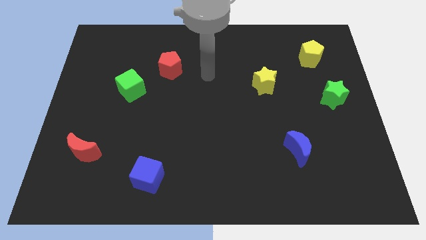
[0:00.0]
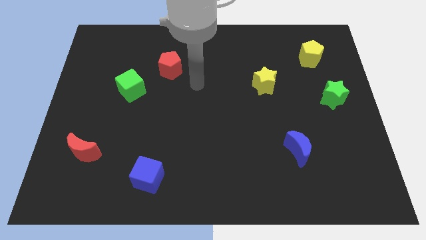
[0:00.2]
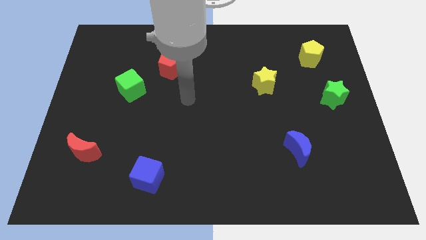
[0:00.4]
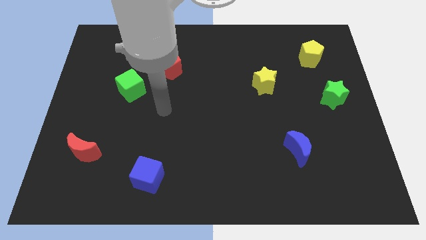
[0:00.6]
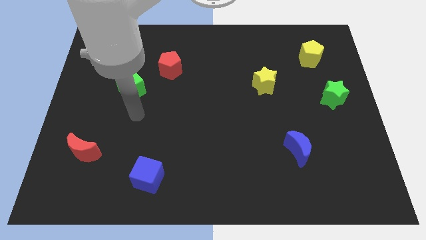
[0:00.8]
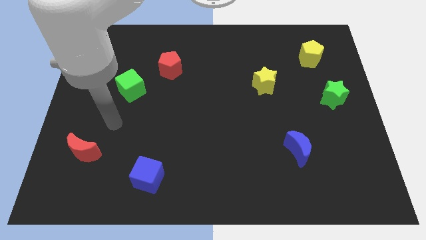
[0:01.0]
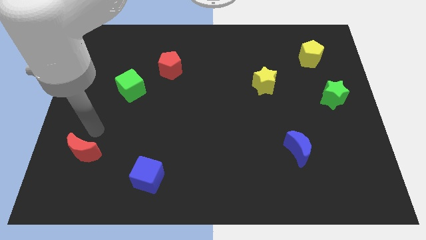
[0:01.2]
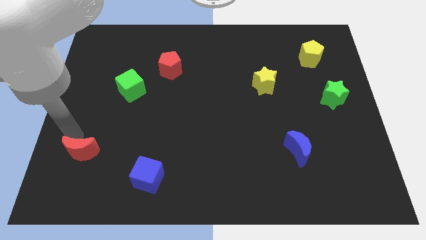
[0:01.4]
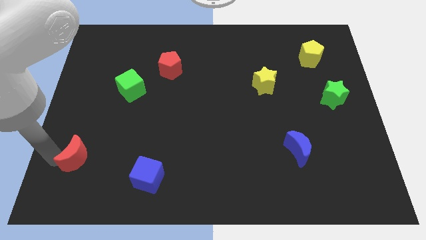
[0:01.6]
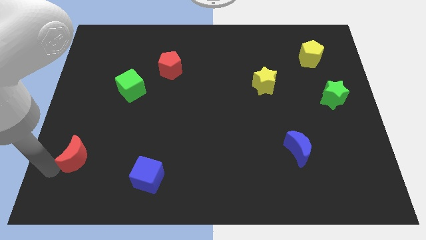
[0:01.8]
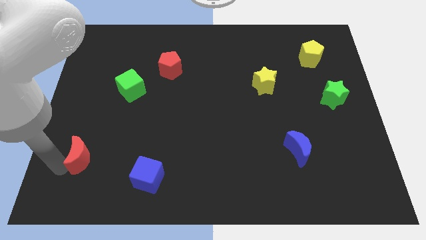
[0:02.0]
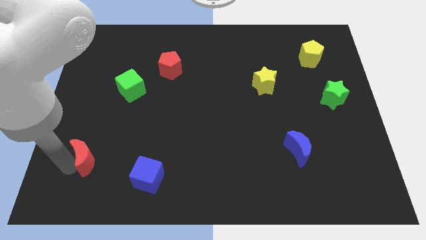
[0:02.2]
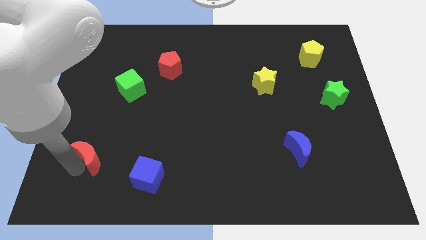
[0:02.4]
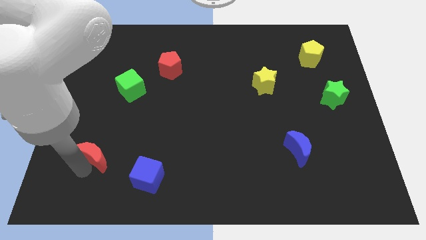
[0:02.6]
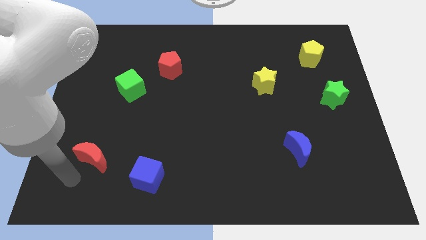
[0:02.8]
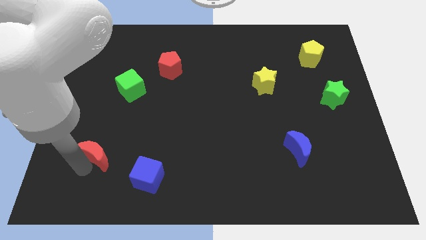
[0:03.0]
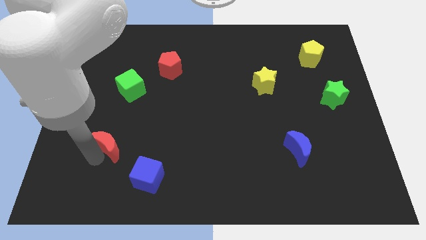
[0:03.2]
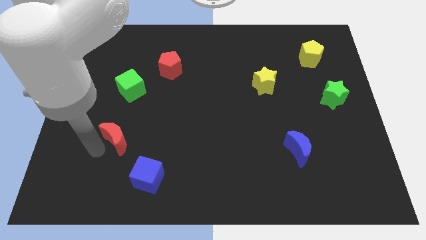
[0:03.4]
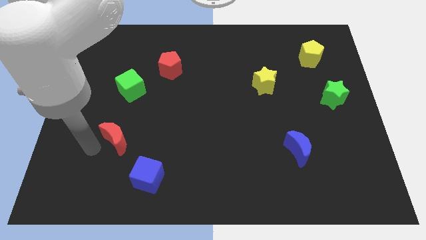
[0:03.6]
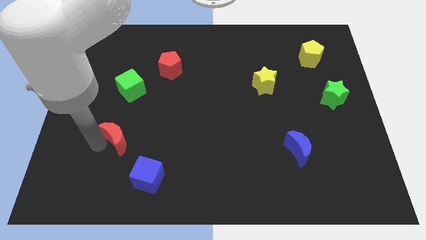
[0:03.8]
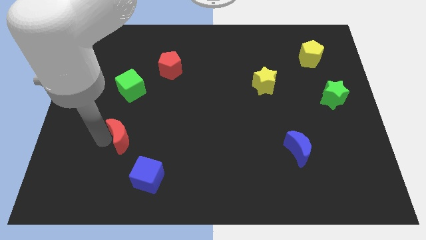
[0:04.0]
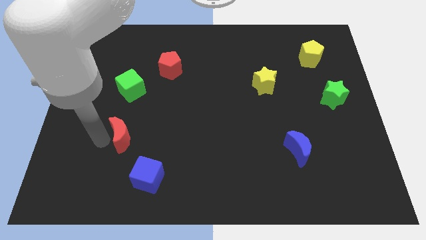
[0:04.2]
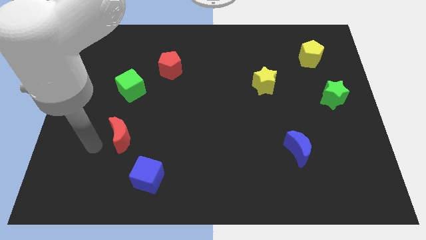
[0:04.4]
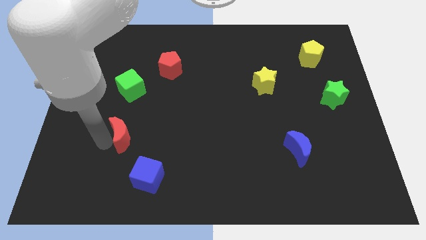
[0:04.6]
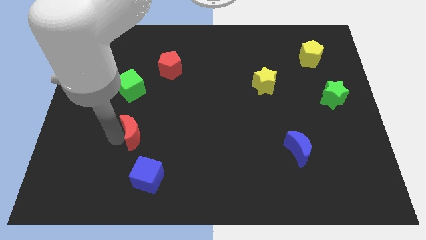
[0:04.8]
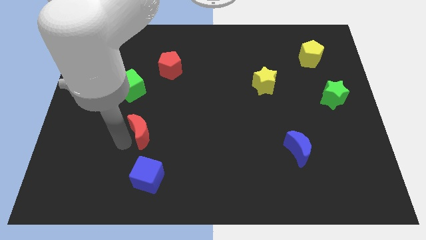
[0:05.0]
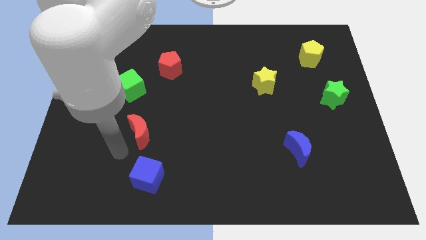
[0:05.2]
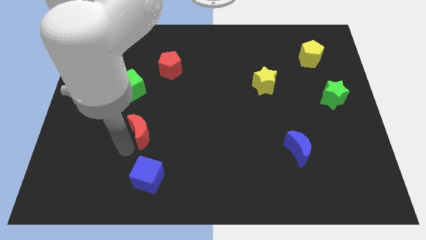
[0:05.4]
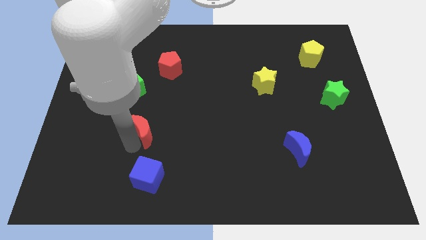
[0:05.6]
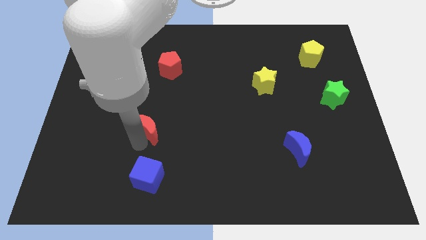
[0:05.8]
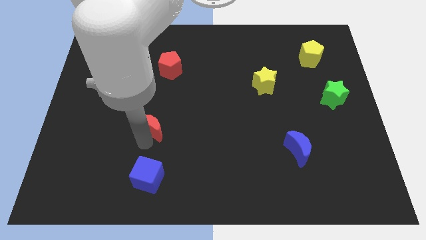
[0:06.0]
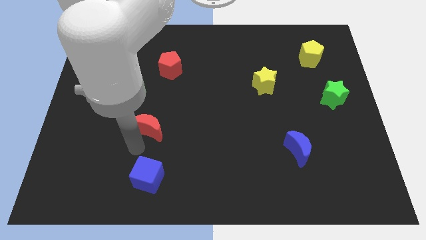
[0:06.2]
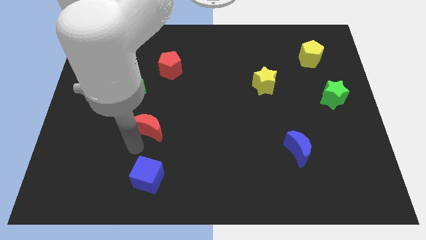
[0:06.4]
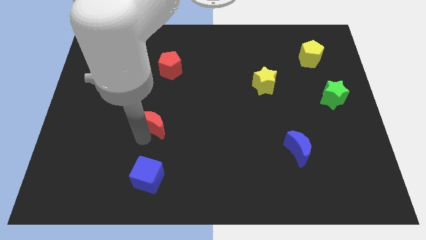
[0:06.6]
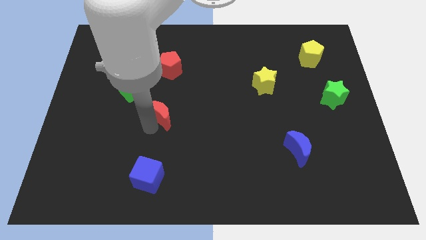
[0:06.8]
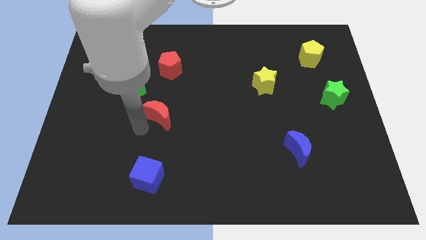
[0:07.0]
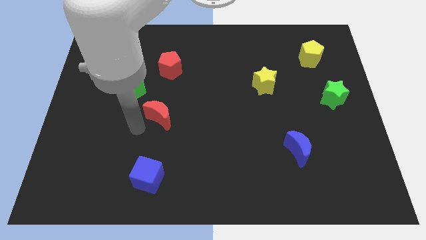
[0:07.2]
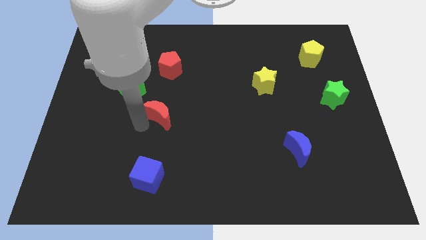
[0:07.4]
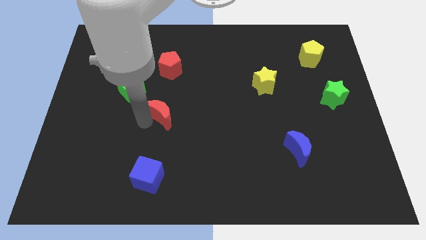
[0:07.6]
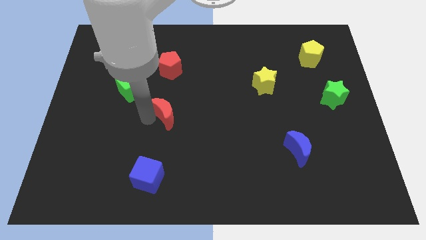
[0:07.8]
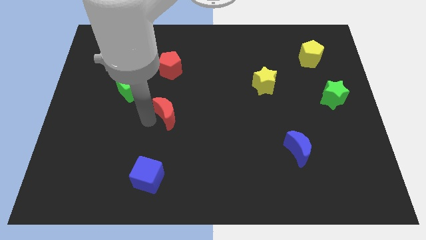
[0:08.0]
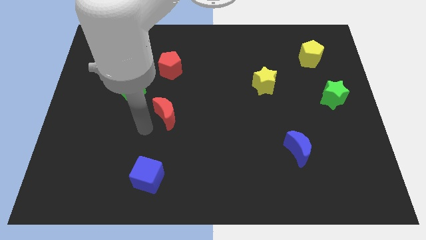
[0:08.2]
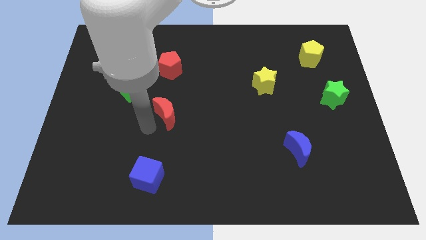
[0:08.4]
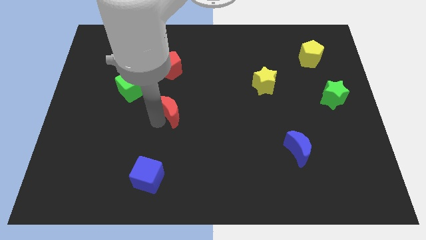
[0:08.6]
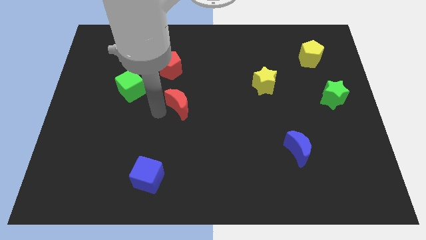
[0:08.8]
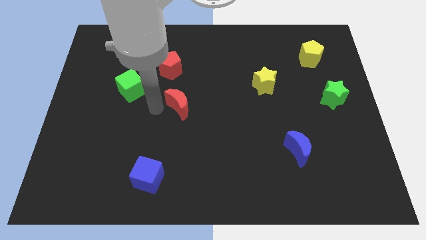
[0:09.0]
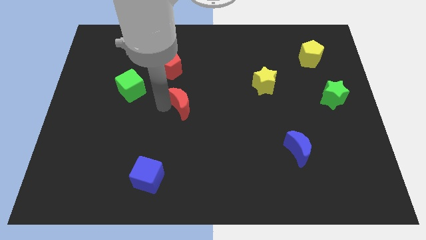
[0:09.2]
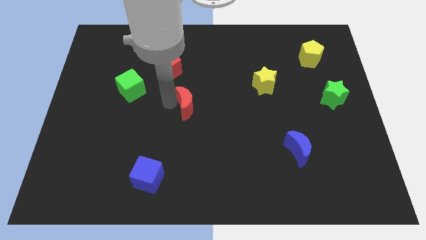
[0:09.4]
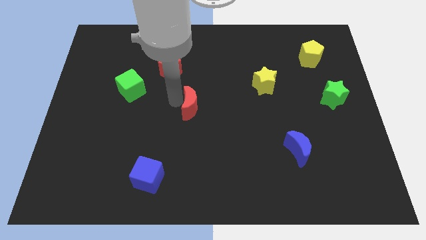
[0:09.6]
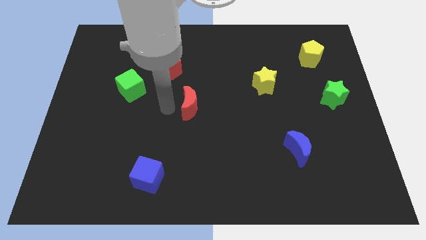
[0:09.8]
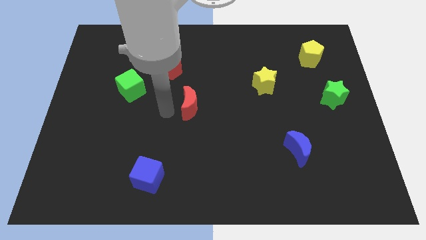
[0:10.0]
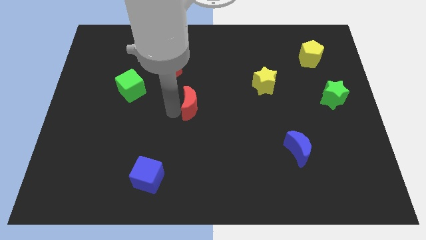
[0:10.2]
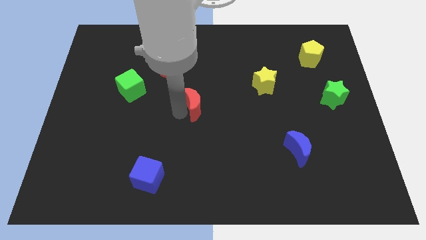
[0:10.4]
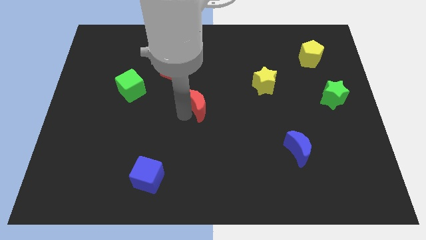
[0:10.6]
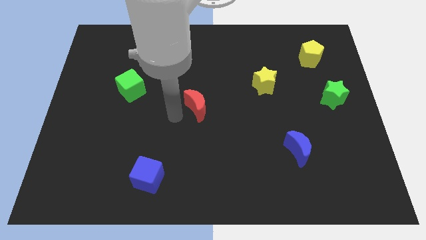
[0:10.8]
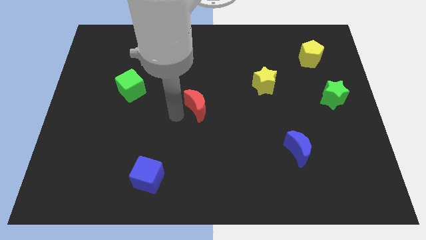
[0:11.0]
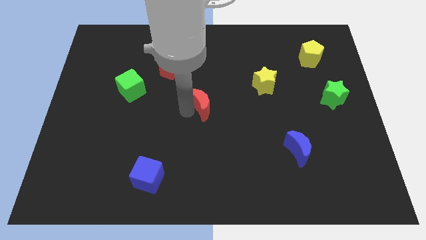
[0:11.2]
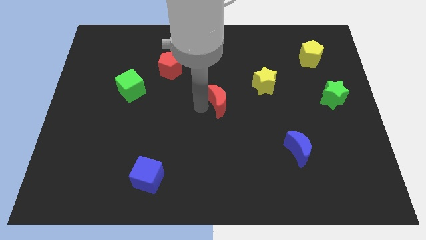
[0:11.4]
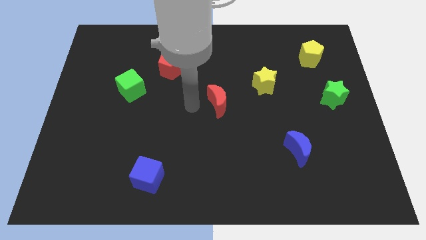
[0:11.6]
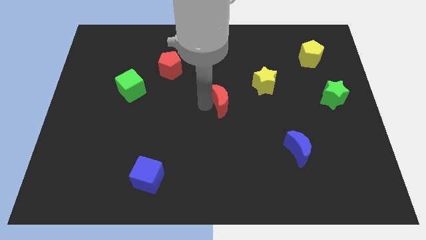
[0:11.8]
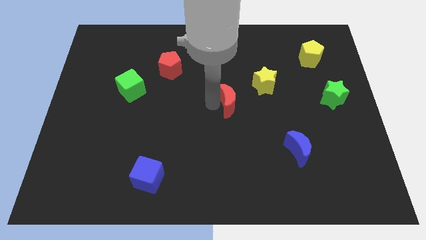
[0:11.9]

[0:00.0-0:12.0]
put the red moon diagonally down and to the left of the yellow star

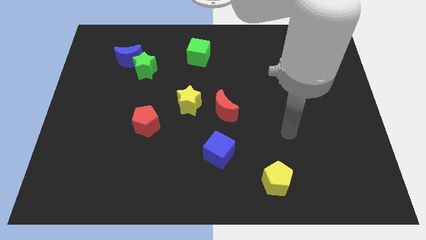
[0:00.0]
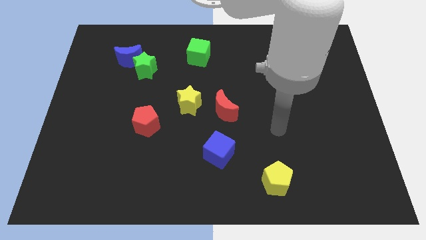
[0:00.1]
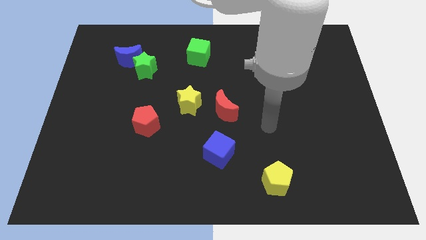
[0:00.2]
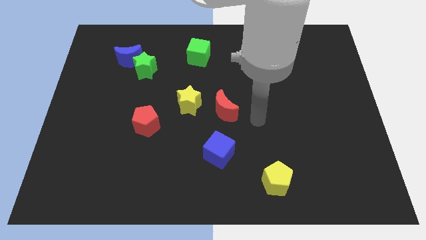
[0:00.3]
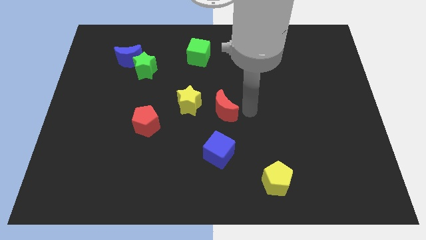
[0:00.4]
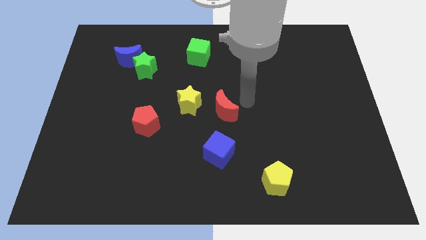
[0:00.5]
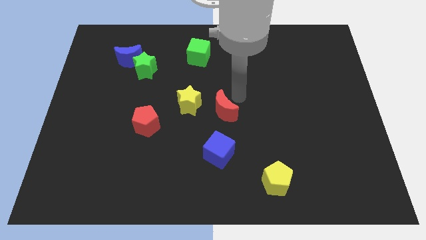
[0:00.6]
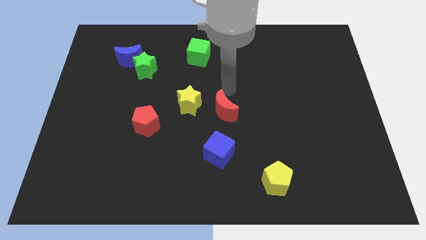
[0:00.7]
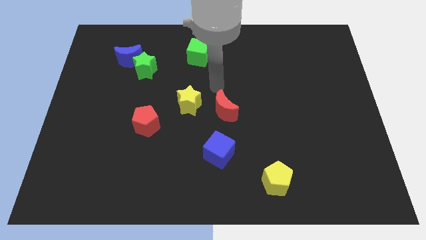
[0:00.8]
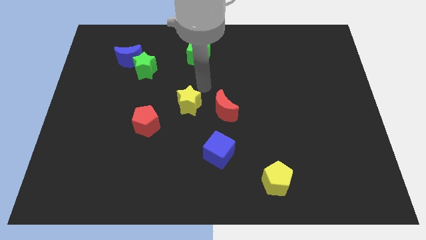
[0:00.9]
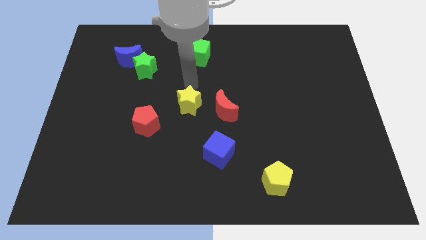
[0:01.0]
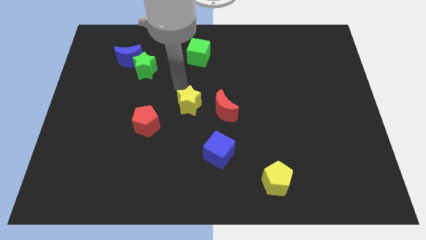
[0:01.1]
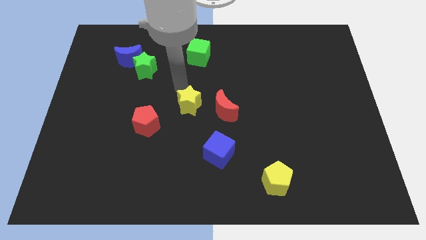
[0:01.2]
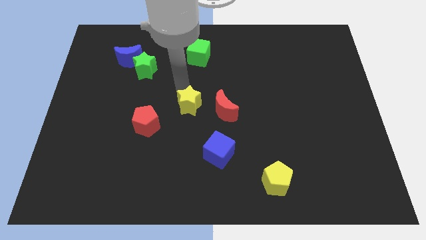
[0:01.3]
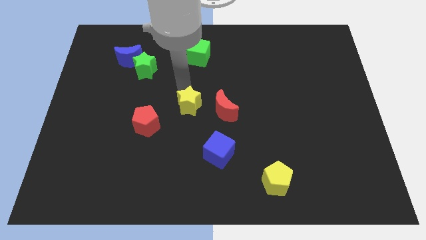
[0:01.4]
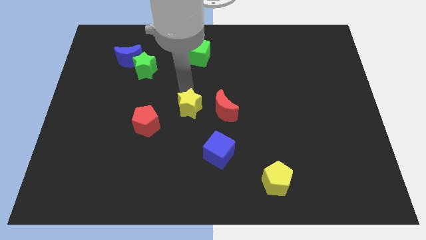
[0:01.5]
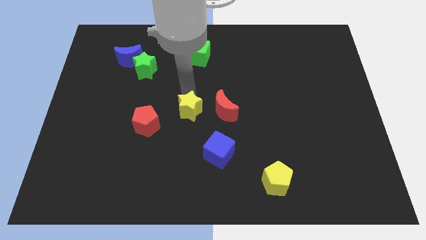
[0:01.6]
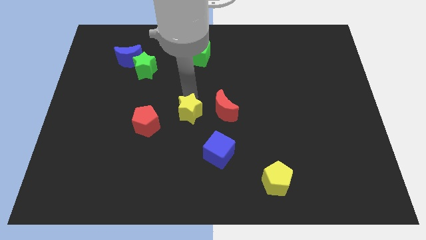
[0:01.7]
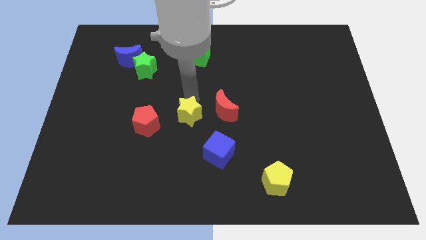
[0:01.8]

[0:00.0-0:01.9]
put the yellow star to the bottom left side of the red moon

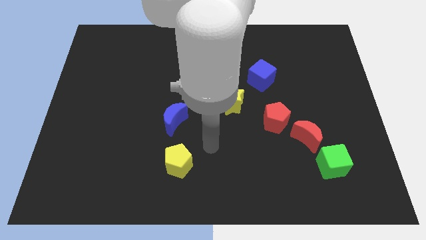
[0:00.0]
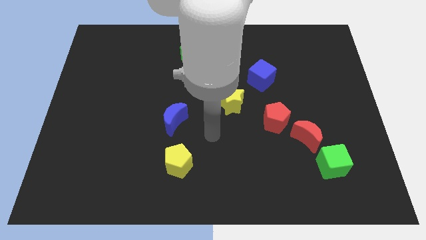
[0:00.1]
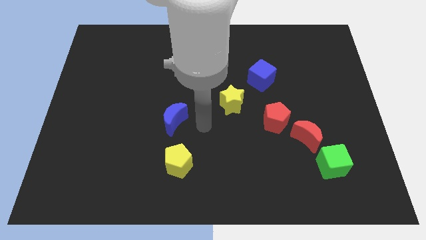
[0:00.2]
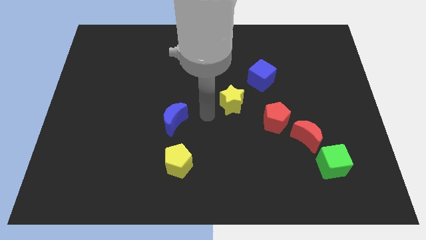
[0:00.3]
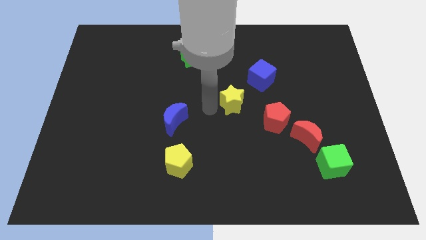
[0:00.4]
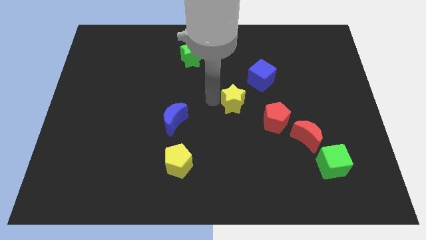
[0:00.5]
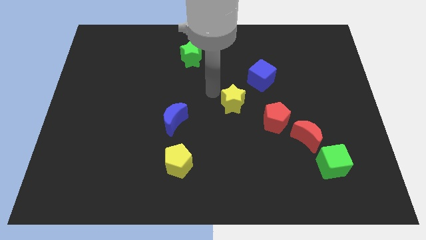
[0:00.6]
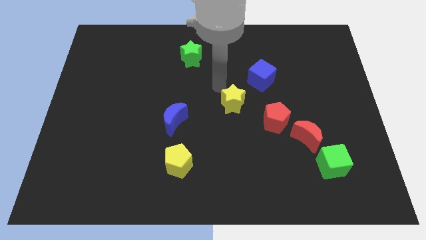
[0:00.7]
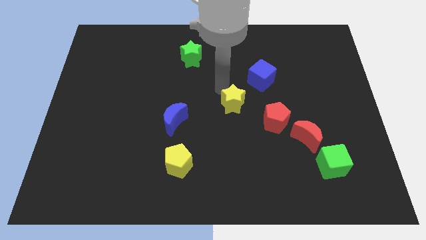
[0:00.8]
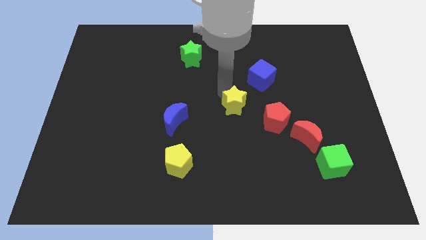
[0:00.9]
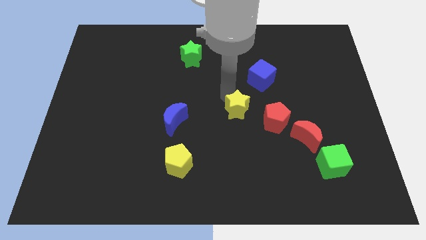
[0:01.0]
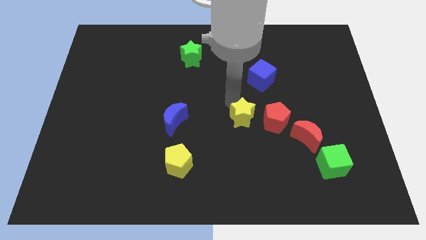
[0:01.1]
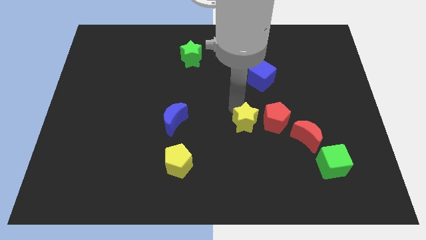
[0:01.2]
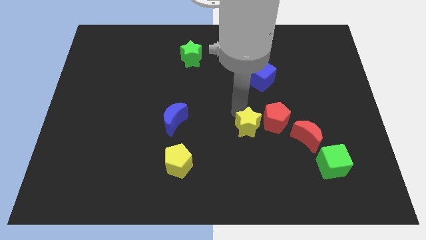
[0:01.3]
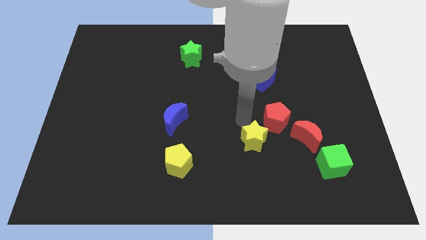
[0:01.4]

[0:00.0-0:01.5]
move the yellow star to the bottom side of the red pentagon
